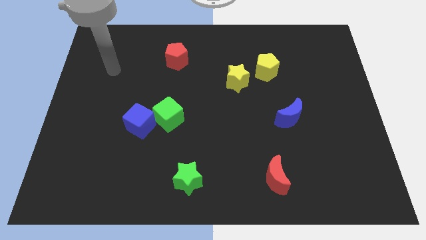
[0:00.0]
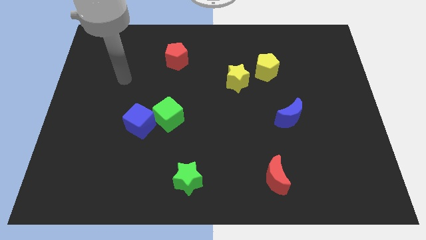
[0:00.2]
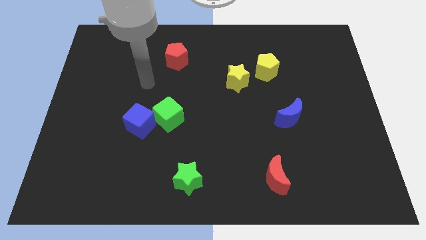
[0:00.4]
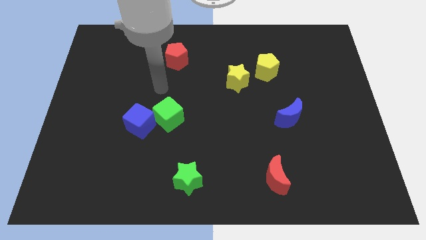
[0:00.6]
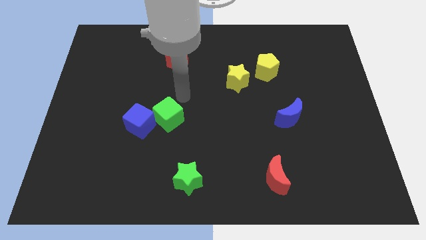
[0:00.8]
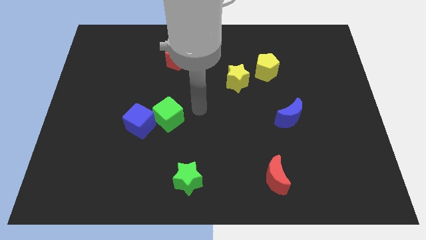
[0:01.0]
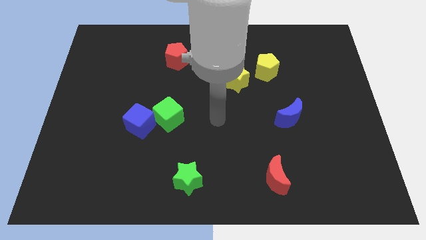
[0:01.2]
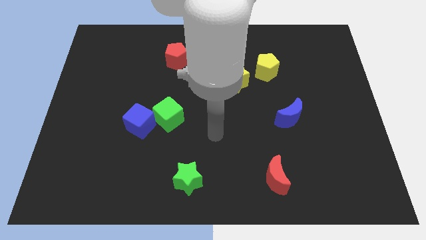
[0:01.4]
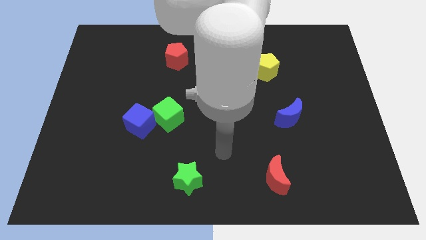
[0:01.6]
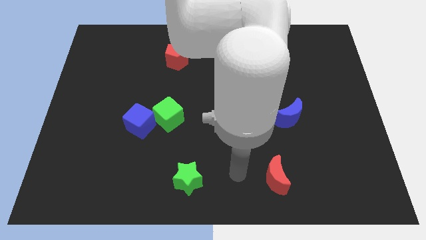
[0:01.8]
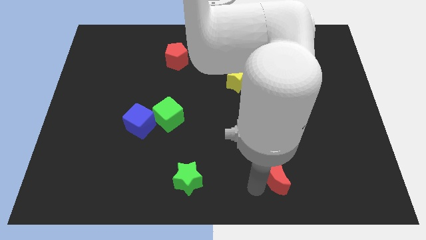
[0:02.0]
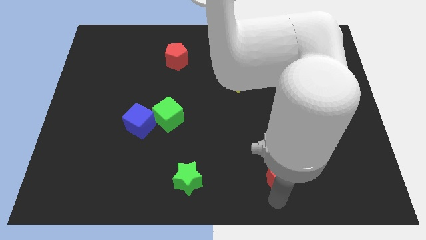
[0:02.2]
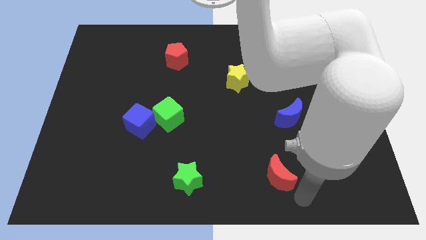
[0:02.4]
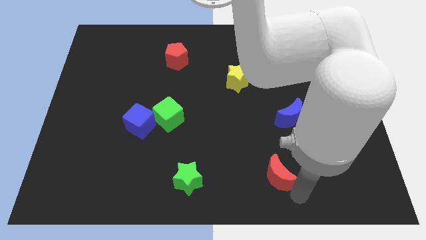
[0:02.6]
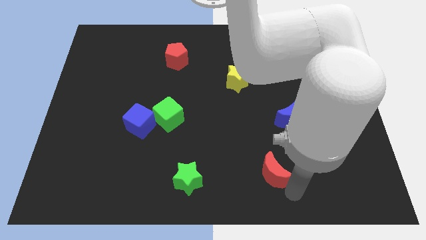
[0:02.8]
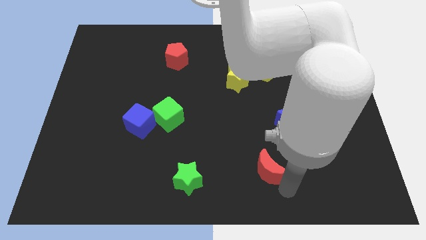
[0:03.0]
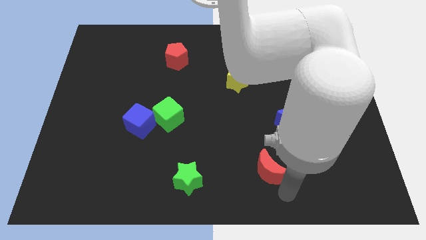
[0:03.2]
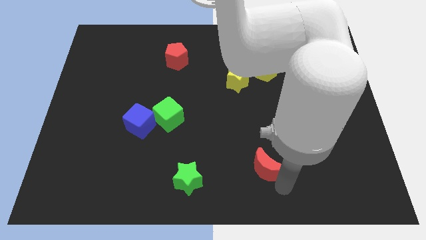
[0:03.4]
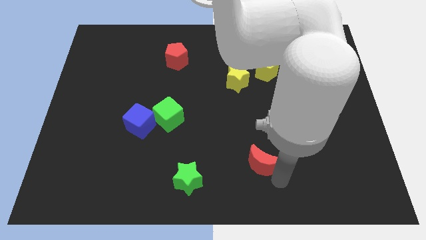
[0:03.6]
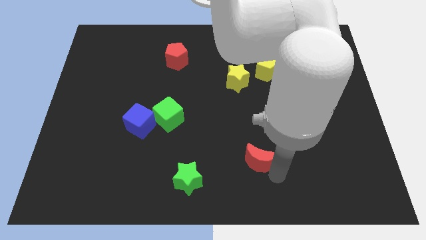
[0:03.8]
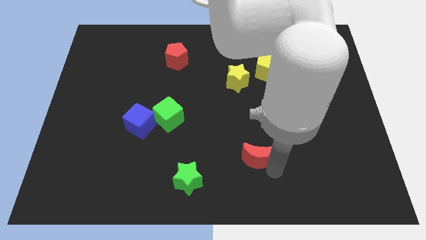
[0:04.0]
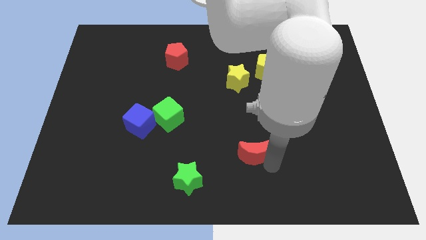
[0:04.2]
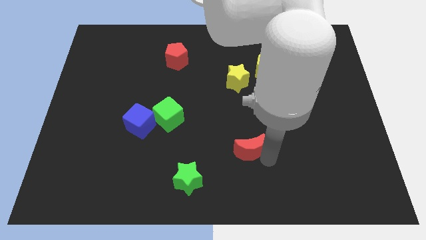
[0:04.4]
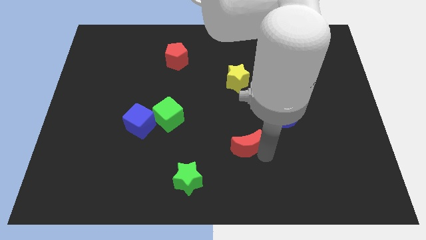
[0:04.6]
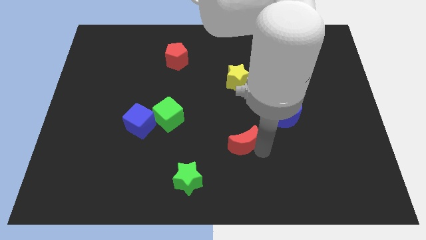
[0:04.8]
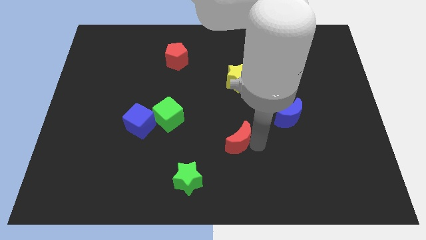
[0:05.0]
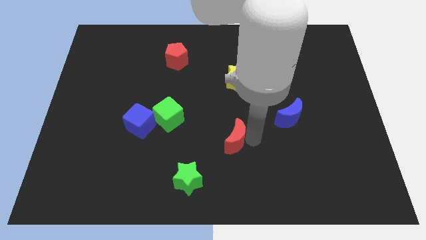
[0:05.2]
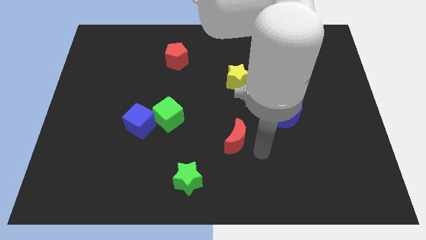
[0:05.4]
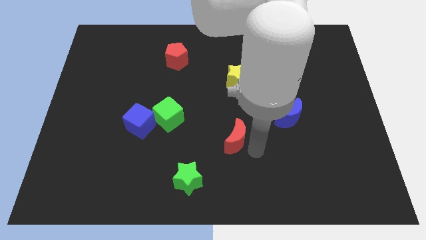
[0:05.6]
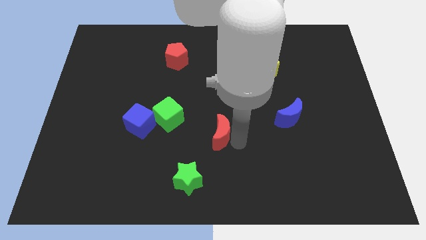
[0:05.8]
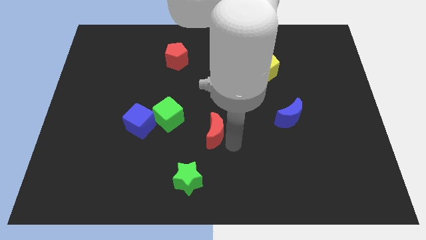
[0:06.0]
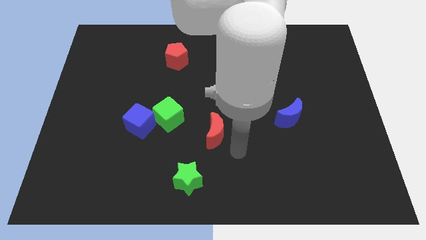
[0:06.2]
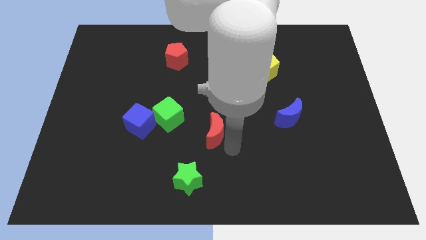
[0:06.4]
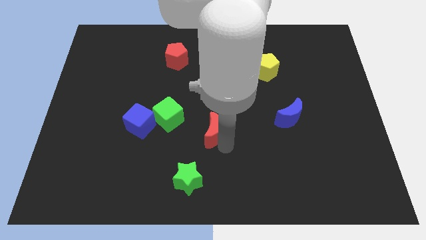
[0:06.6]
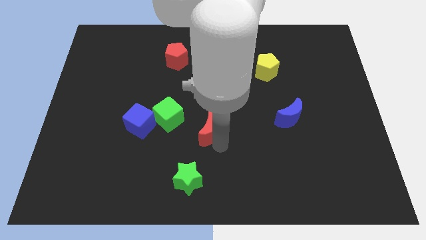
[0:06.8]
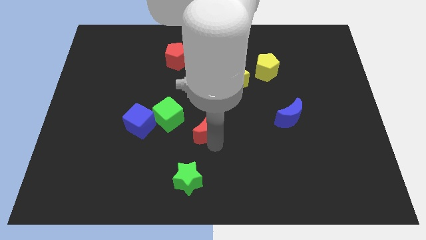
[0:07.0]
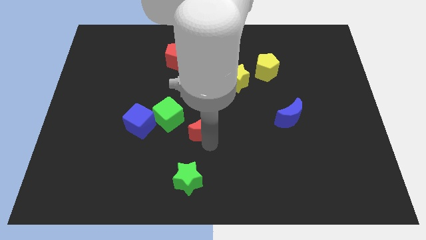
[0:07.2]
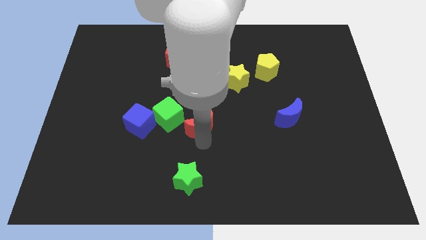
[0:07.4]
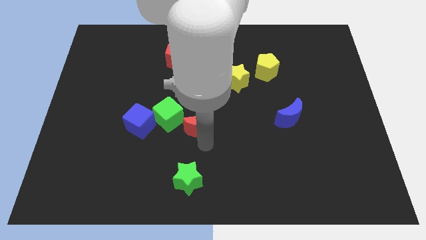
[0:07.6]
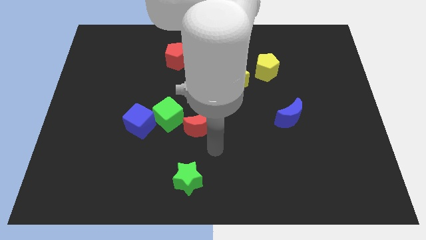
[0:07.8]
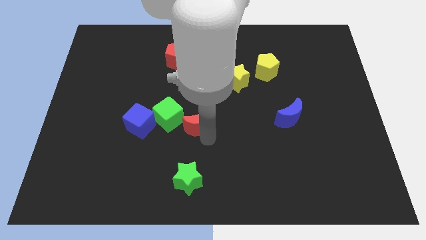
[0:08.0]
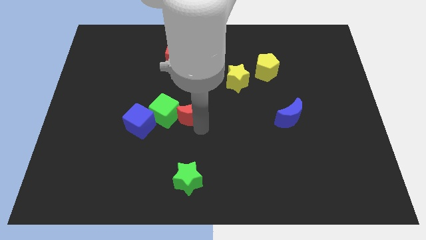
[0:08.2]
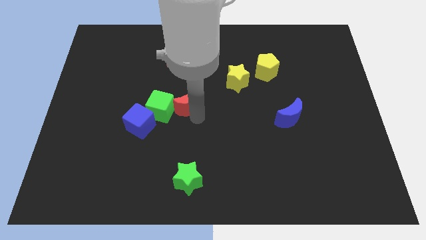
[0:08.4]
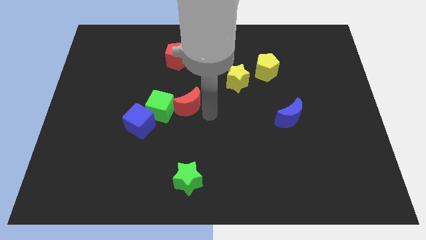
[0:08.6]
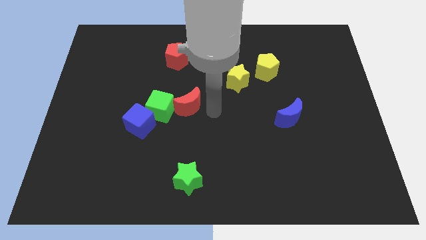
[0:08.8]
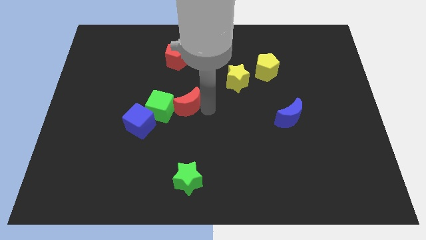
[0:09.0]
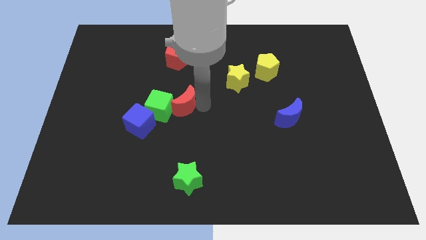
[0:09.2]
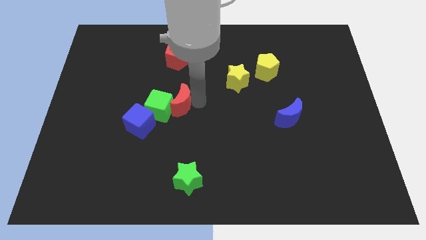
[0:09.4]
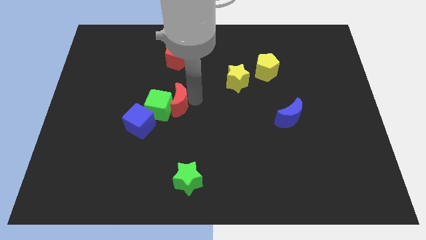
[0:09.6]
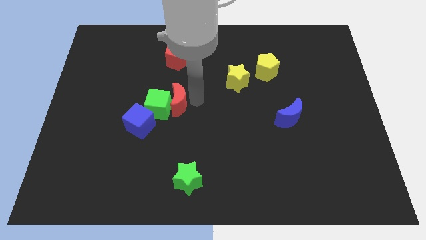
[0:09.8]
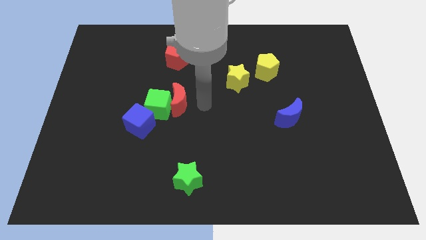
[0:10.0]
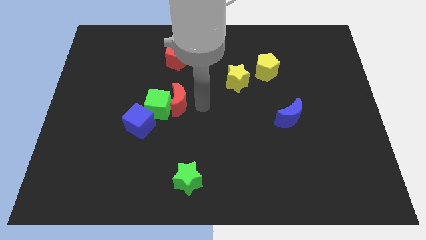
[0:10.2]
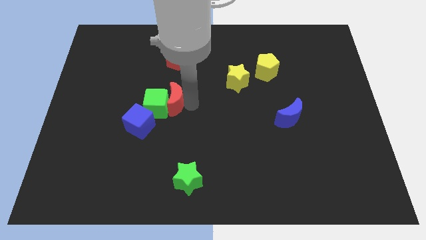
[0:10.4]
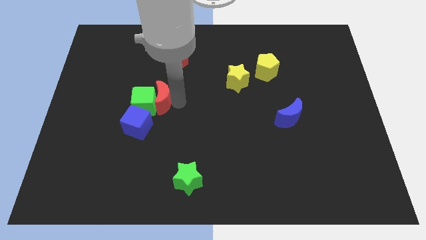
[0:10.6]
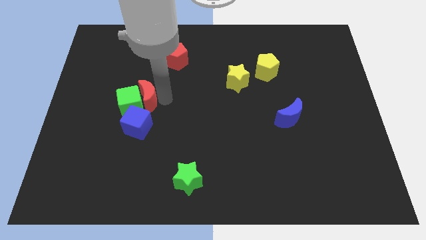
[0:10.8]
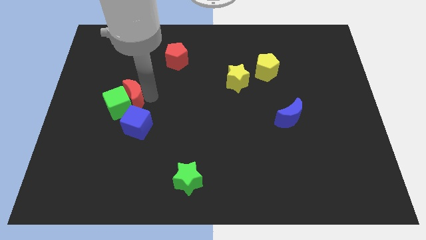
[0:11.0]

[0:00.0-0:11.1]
put the red moon diagonally up and to the left of the blue cube

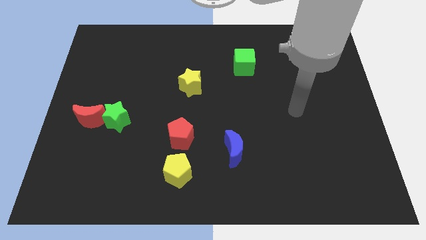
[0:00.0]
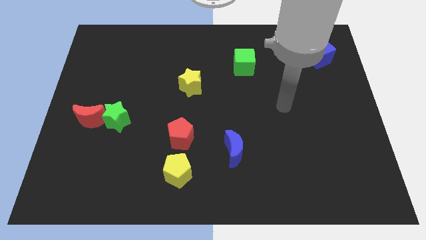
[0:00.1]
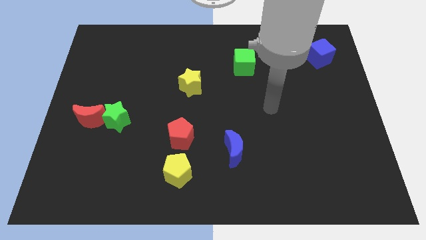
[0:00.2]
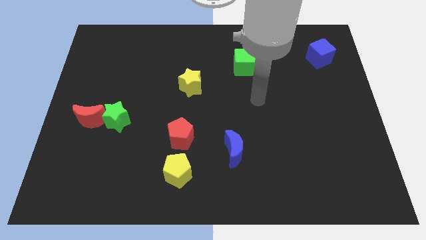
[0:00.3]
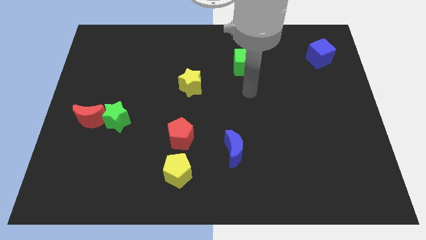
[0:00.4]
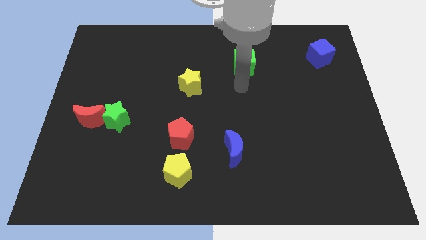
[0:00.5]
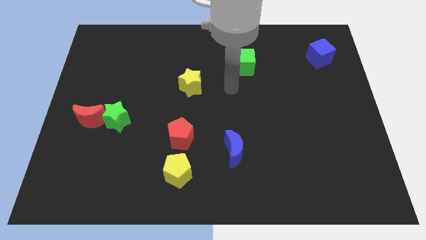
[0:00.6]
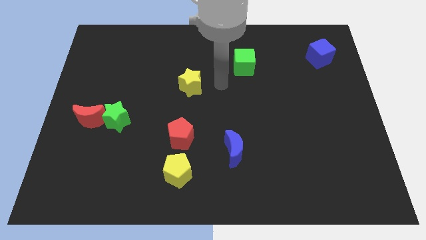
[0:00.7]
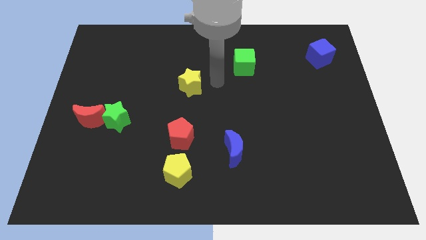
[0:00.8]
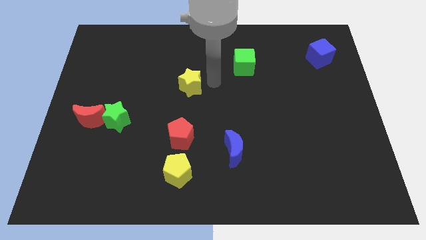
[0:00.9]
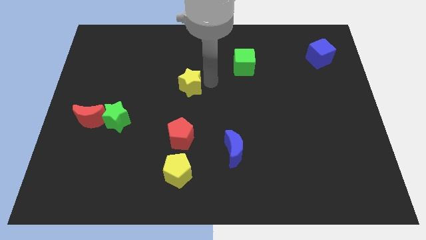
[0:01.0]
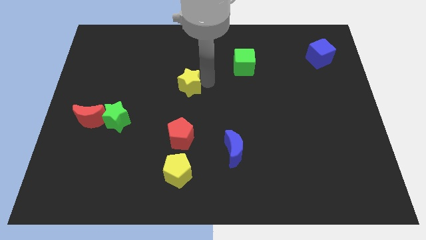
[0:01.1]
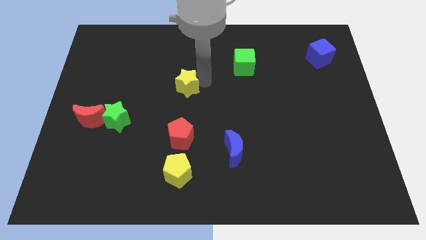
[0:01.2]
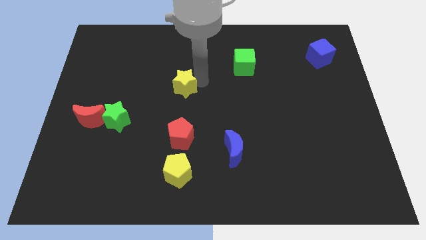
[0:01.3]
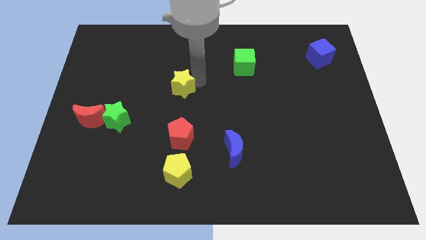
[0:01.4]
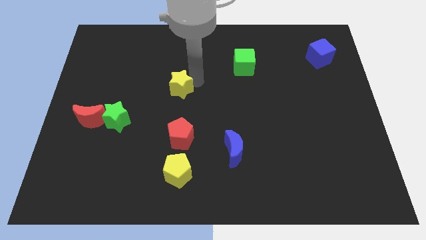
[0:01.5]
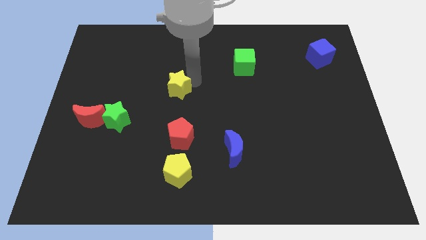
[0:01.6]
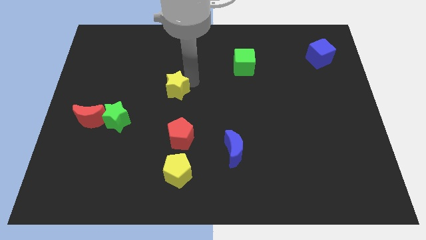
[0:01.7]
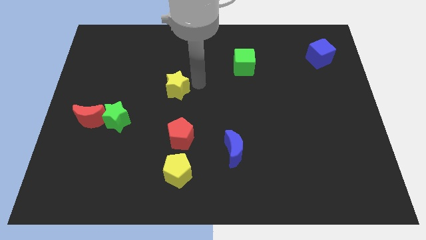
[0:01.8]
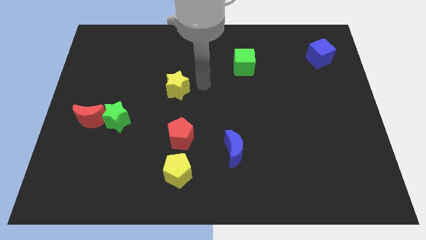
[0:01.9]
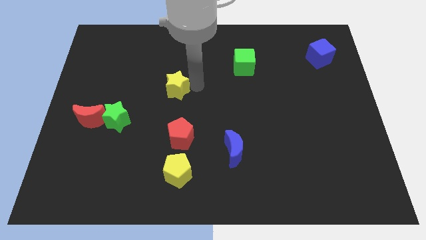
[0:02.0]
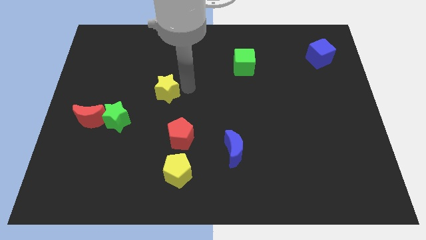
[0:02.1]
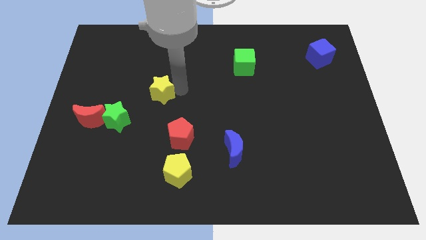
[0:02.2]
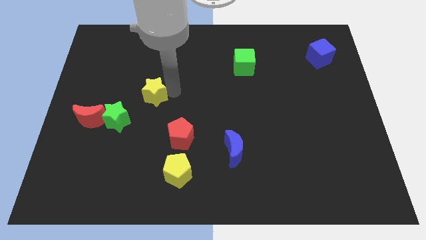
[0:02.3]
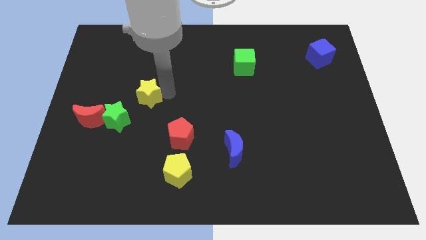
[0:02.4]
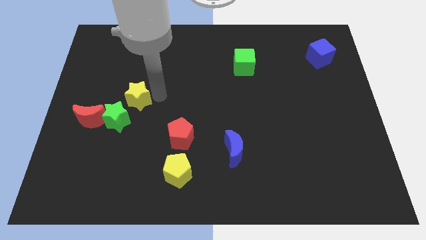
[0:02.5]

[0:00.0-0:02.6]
push the yellow star to the top right side of the red moon
